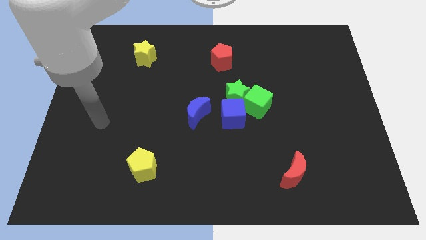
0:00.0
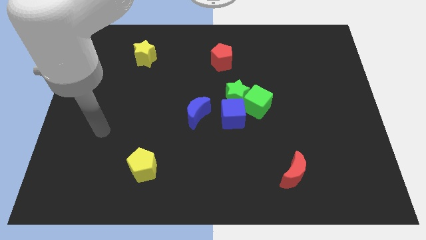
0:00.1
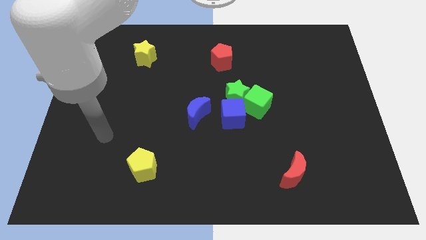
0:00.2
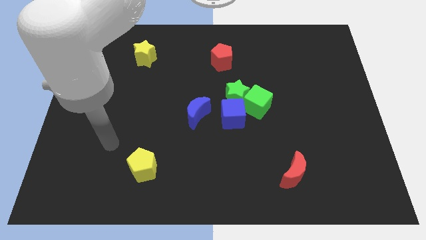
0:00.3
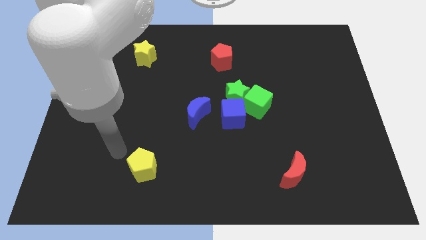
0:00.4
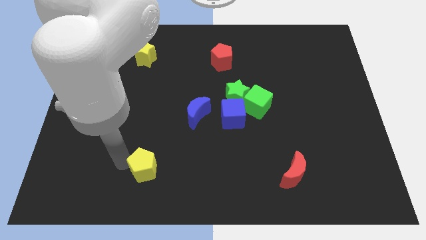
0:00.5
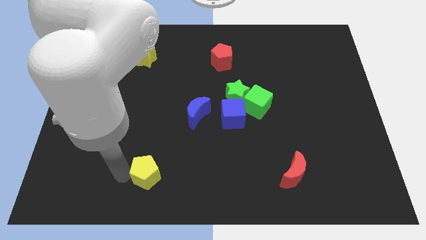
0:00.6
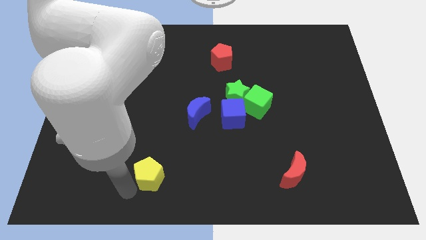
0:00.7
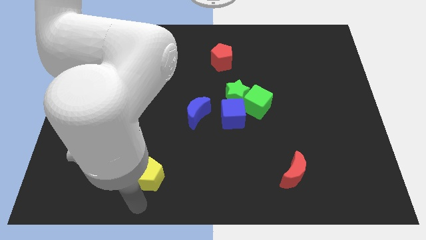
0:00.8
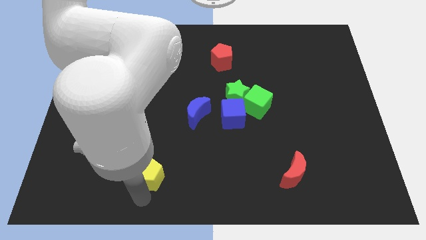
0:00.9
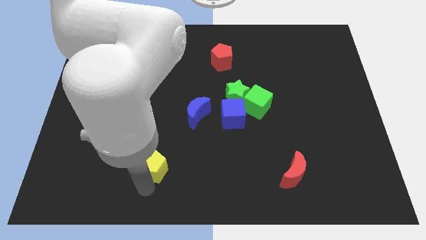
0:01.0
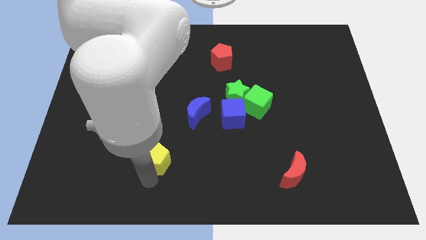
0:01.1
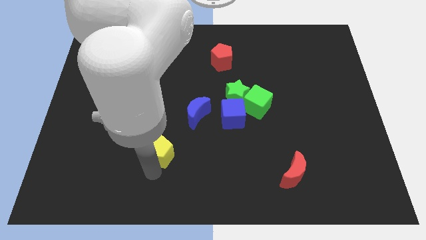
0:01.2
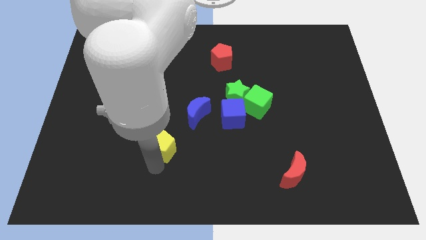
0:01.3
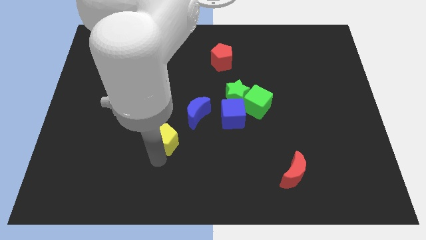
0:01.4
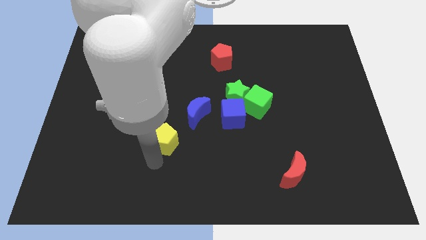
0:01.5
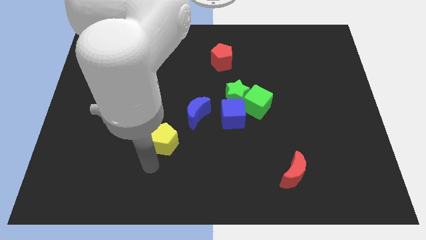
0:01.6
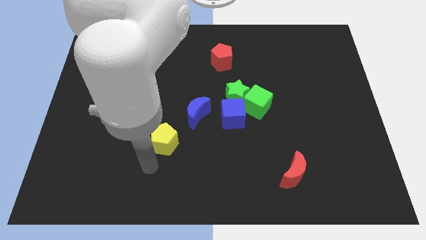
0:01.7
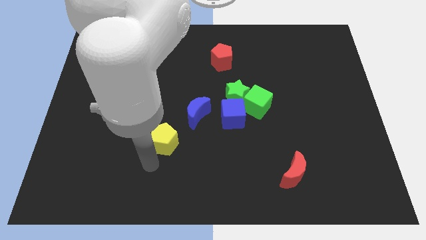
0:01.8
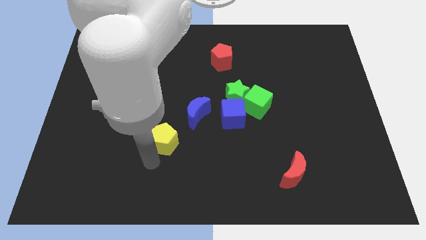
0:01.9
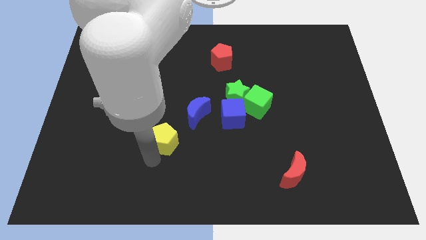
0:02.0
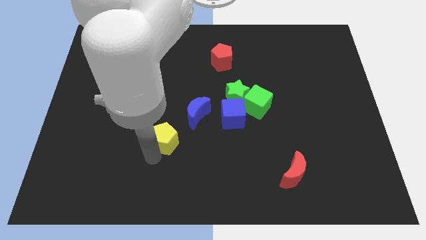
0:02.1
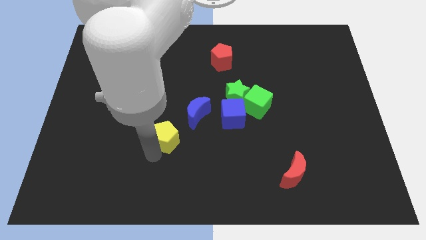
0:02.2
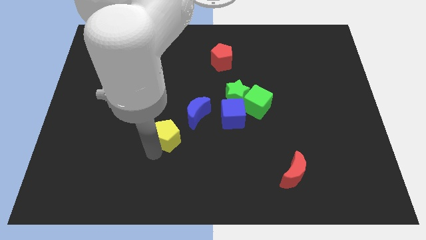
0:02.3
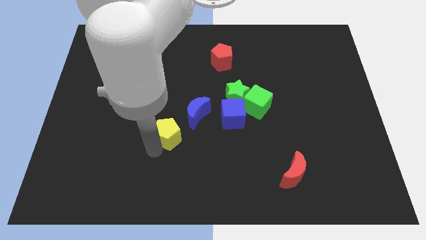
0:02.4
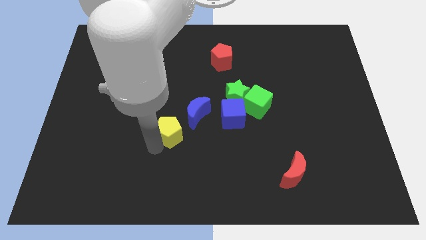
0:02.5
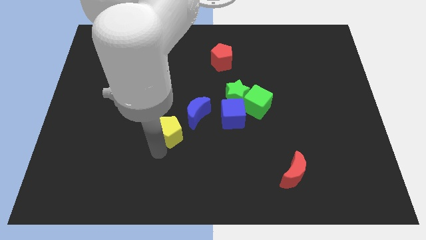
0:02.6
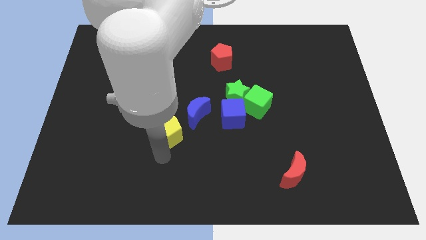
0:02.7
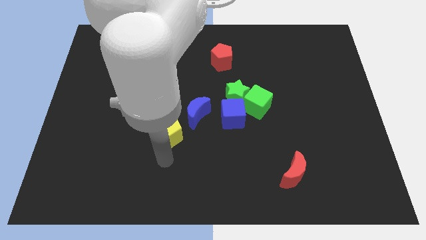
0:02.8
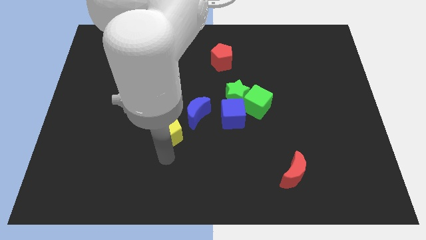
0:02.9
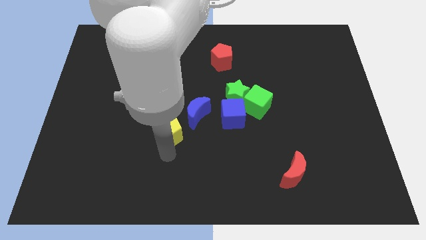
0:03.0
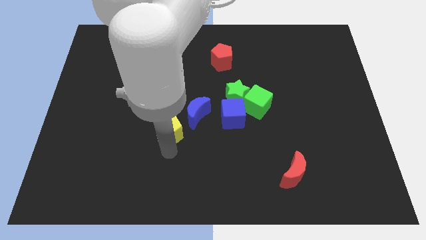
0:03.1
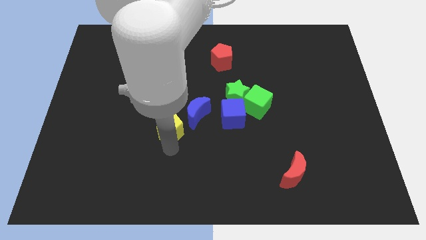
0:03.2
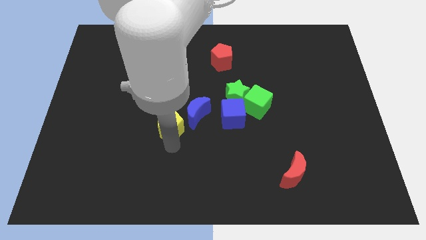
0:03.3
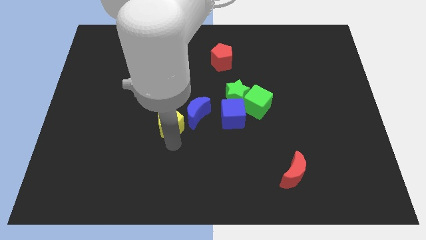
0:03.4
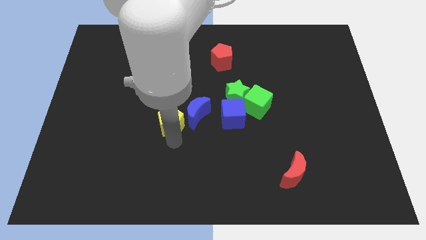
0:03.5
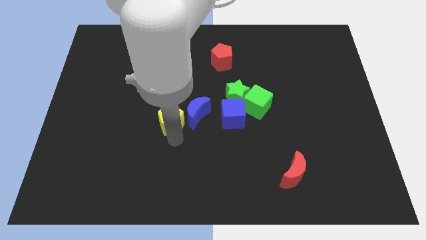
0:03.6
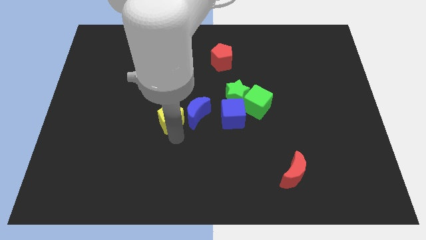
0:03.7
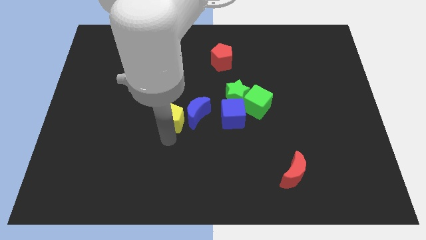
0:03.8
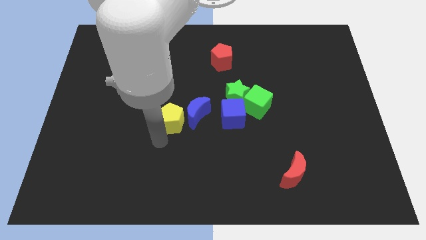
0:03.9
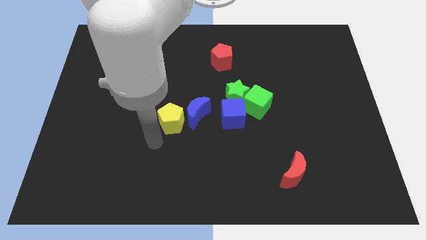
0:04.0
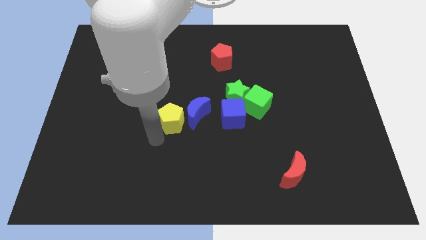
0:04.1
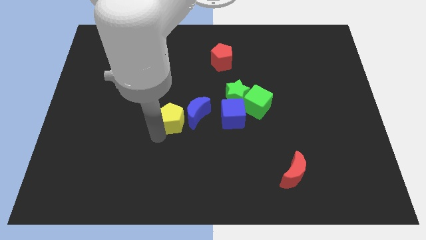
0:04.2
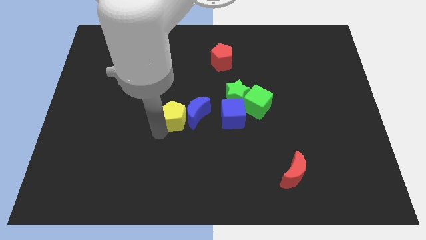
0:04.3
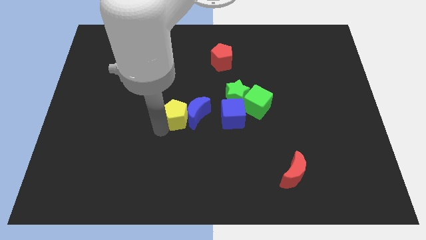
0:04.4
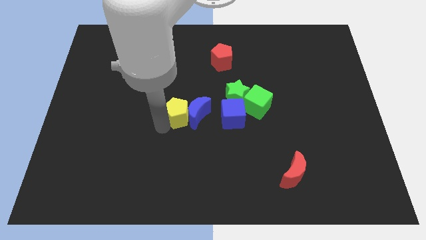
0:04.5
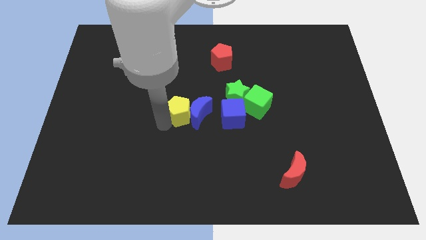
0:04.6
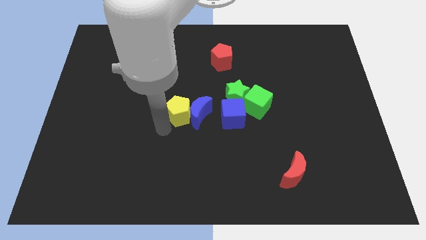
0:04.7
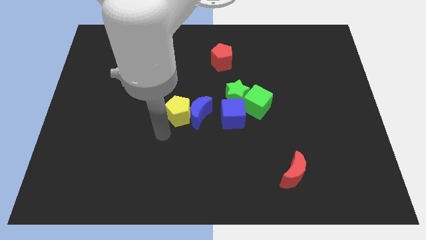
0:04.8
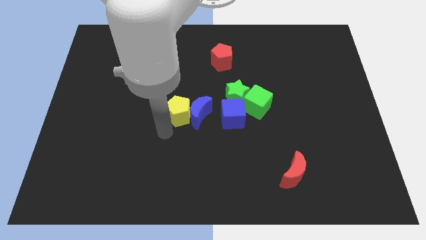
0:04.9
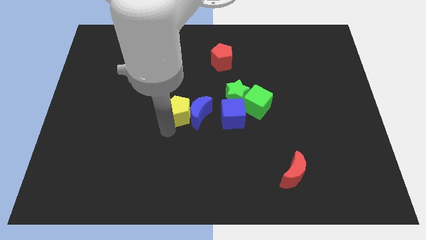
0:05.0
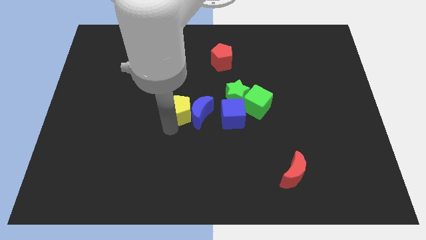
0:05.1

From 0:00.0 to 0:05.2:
slide the yellow pentagon to the left side of the green star

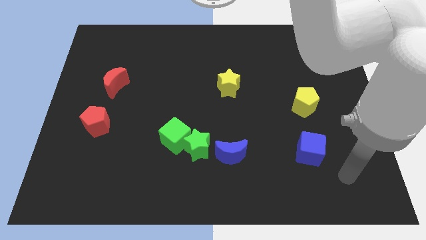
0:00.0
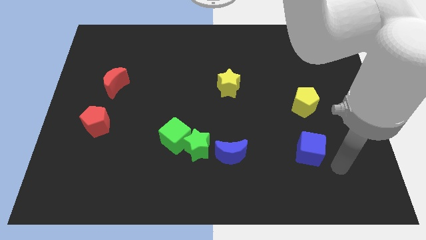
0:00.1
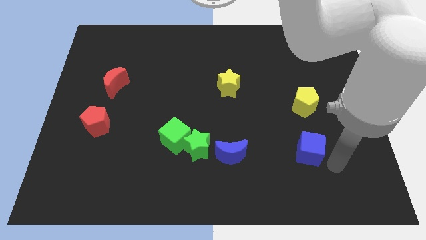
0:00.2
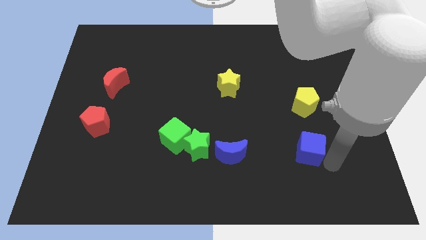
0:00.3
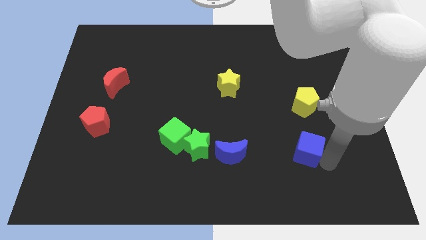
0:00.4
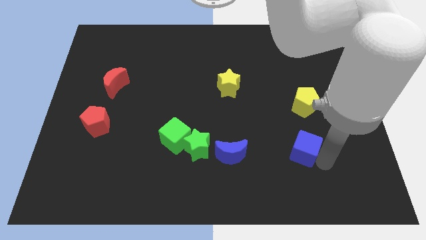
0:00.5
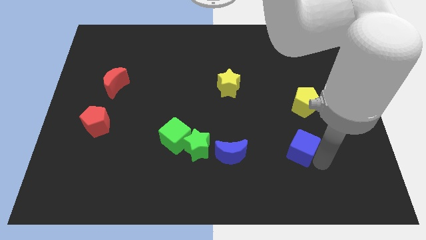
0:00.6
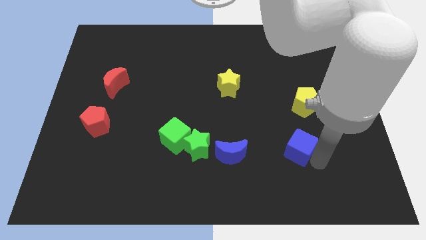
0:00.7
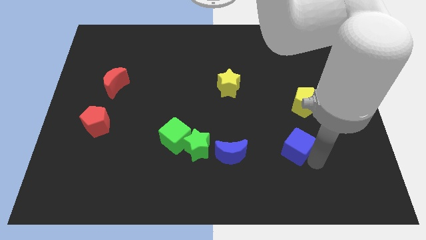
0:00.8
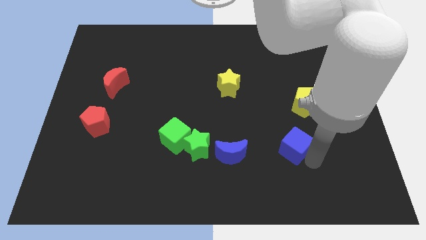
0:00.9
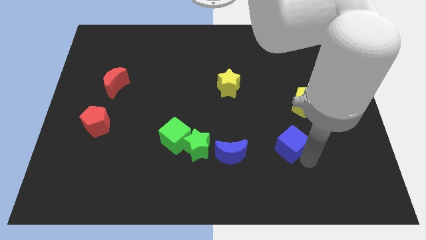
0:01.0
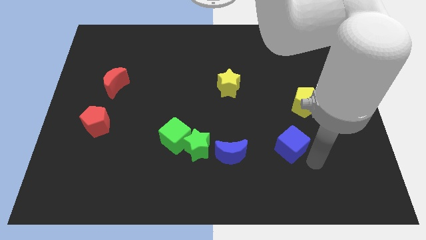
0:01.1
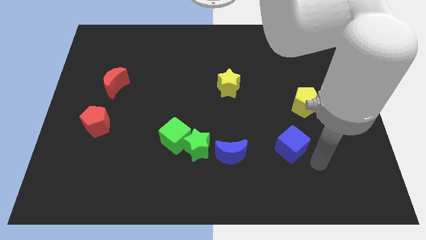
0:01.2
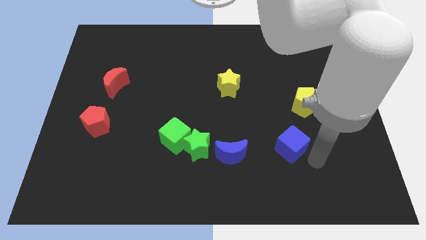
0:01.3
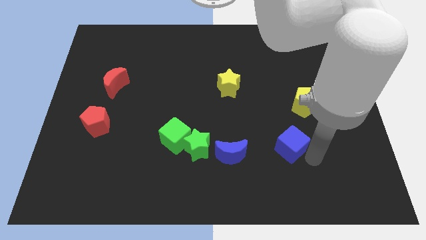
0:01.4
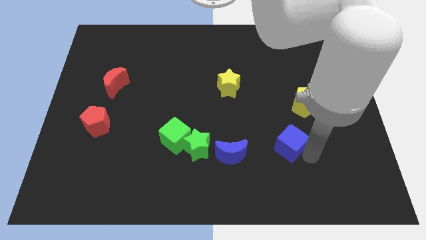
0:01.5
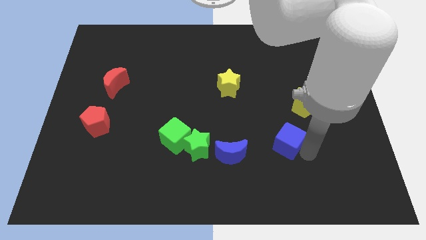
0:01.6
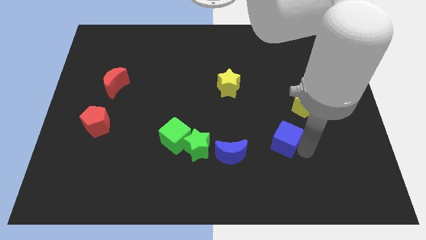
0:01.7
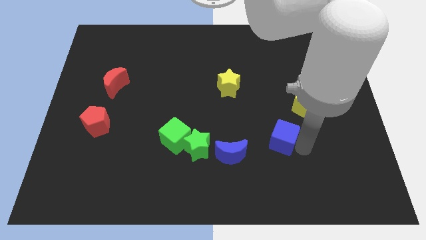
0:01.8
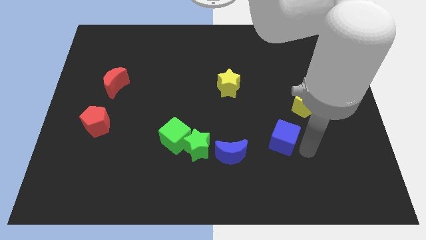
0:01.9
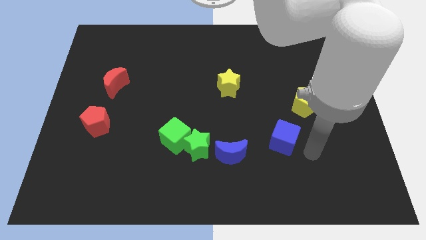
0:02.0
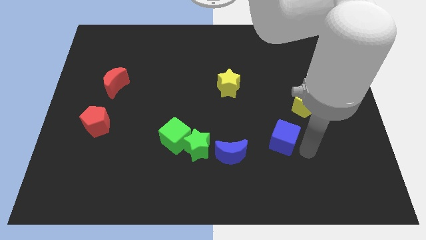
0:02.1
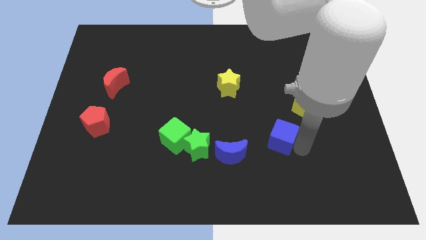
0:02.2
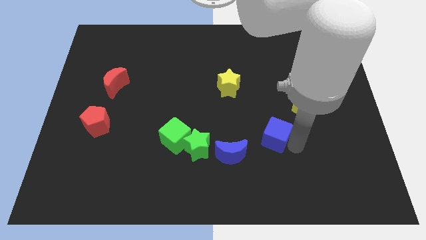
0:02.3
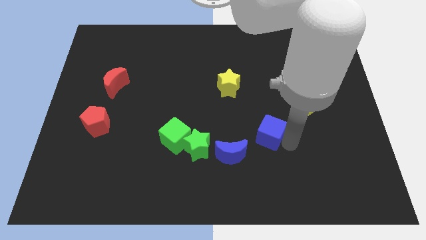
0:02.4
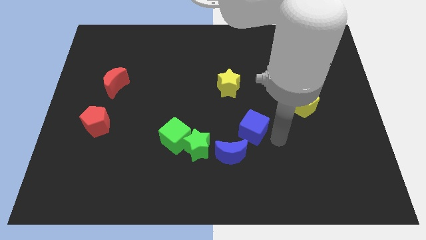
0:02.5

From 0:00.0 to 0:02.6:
slide the blue cube to the top side of the blue moon
